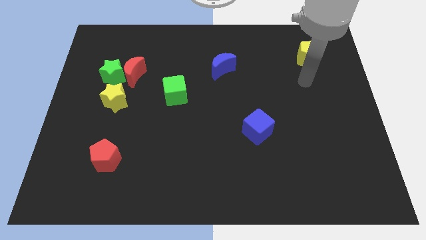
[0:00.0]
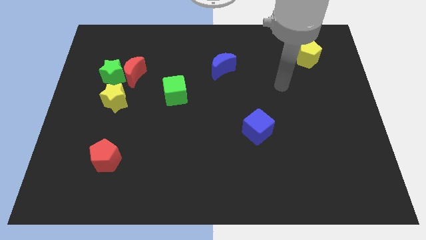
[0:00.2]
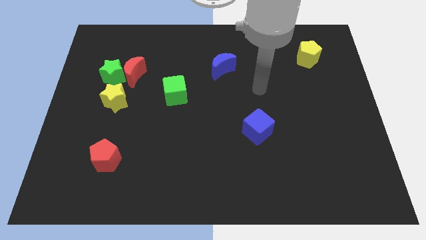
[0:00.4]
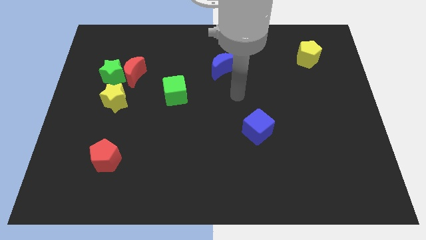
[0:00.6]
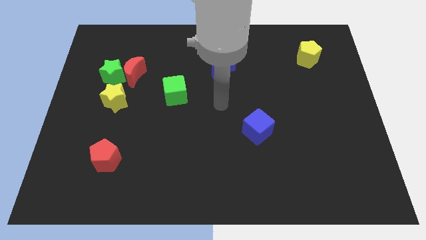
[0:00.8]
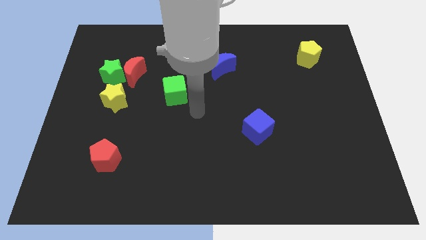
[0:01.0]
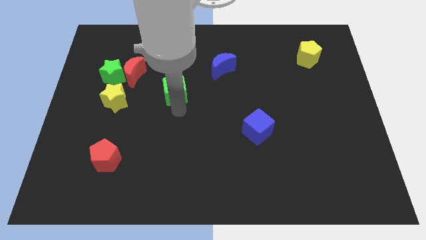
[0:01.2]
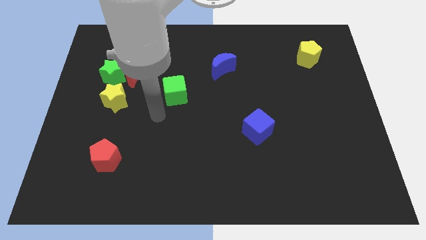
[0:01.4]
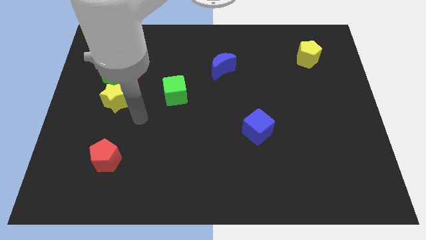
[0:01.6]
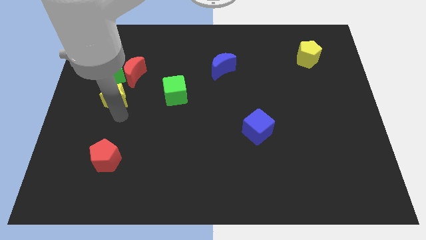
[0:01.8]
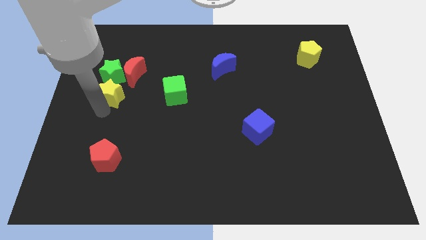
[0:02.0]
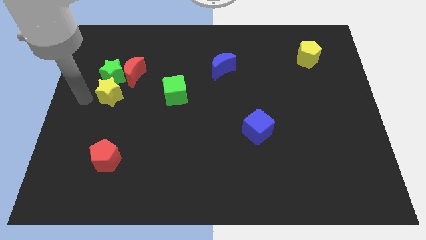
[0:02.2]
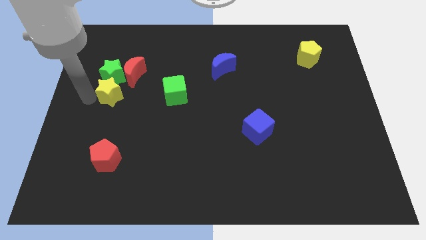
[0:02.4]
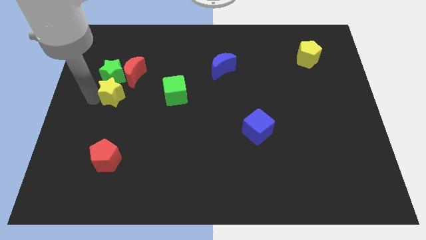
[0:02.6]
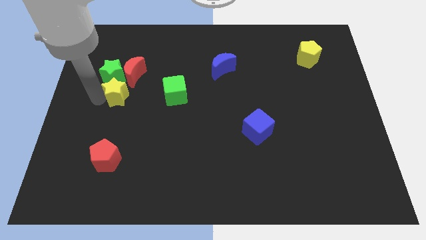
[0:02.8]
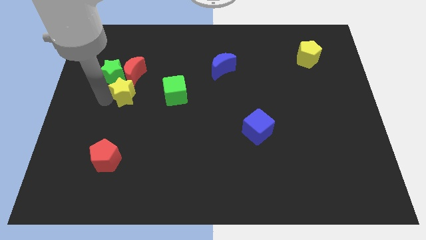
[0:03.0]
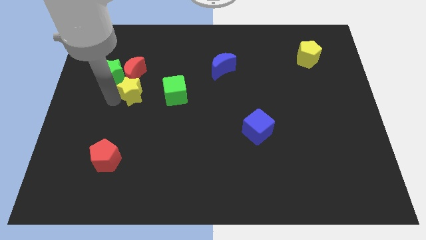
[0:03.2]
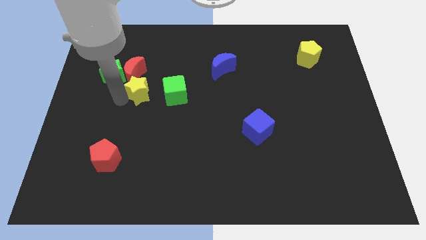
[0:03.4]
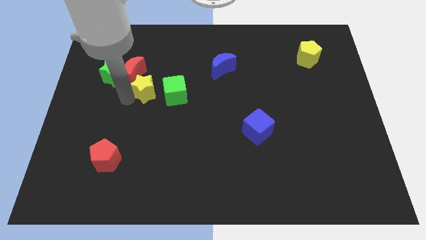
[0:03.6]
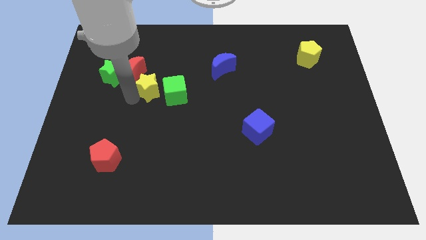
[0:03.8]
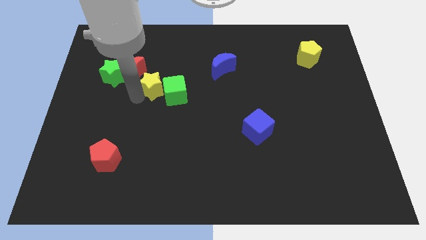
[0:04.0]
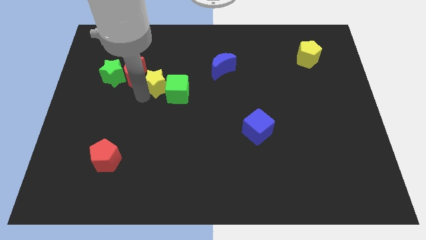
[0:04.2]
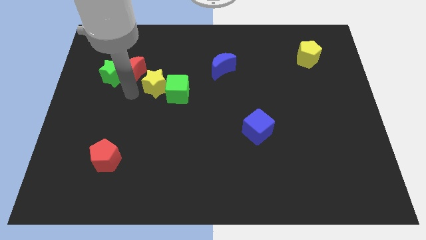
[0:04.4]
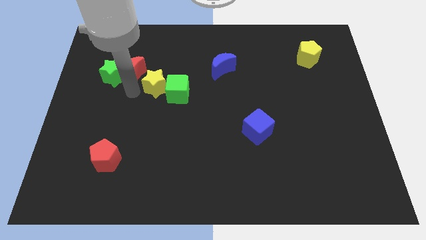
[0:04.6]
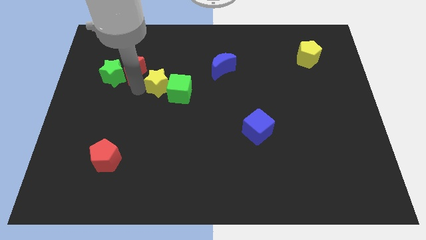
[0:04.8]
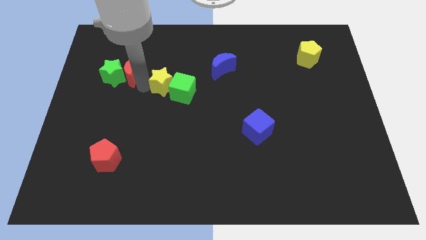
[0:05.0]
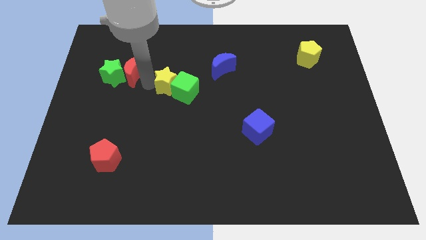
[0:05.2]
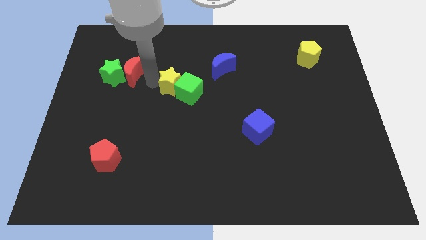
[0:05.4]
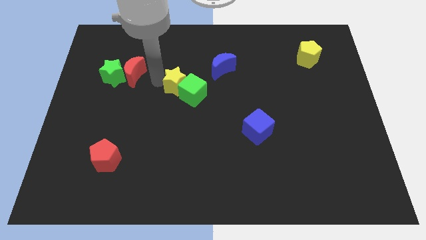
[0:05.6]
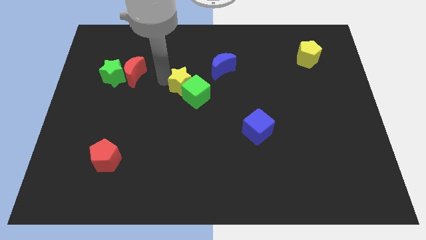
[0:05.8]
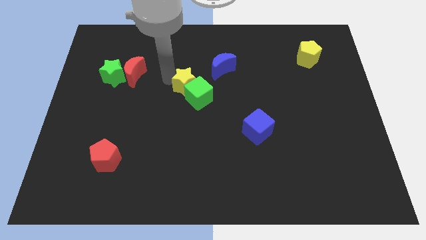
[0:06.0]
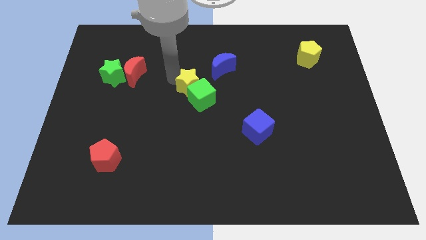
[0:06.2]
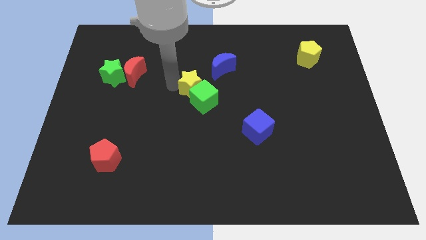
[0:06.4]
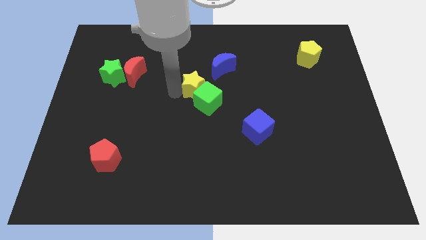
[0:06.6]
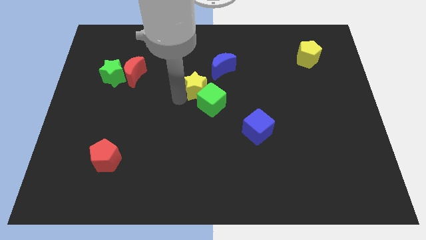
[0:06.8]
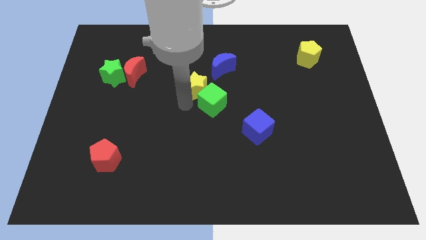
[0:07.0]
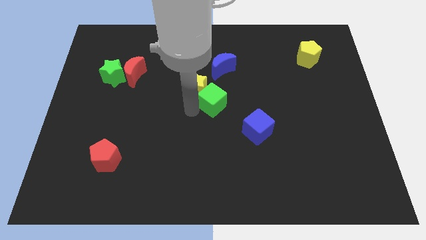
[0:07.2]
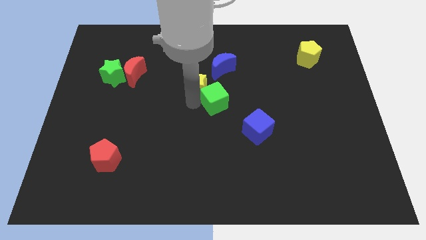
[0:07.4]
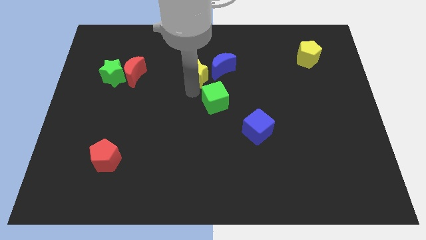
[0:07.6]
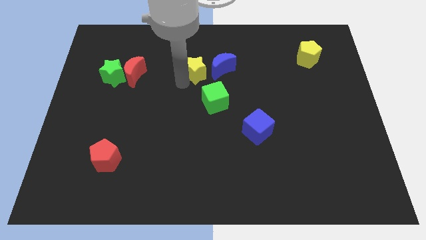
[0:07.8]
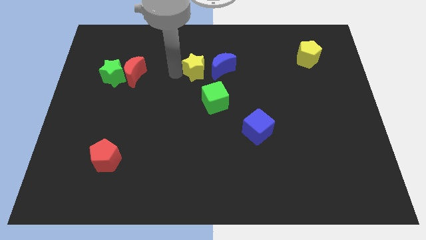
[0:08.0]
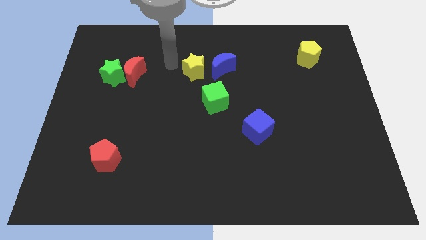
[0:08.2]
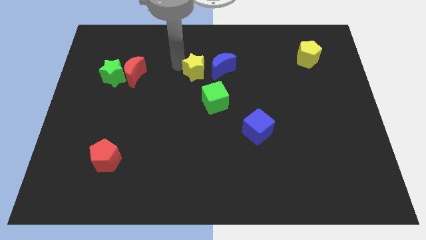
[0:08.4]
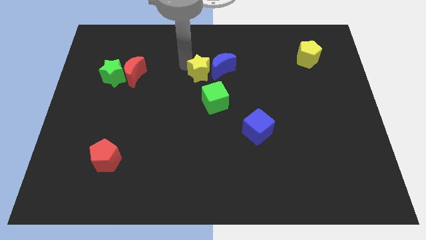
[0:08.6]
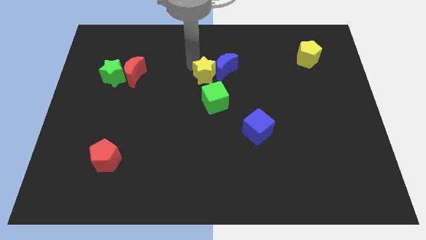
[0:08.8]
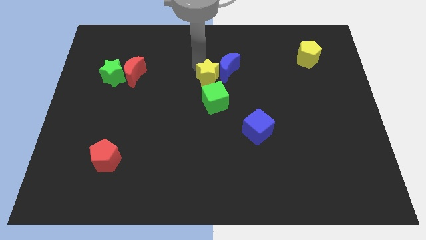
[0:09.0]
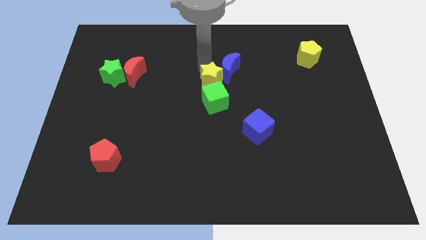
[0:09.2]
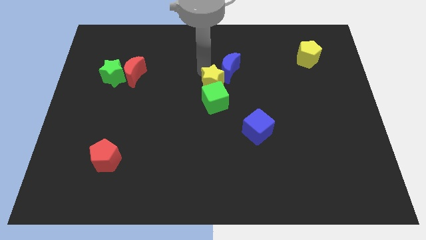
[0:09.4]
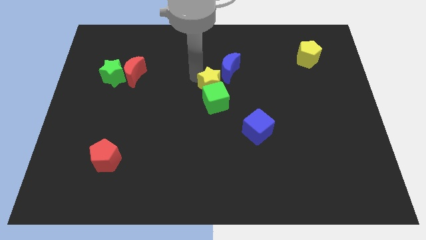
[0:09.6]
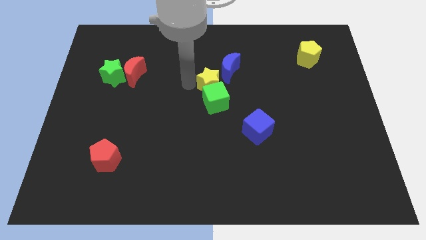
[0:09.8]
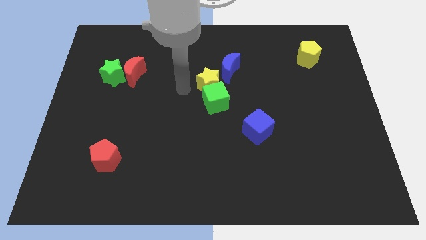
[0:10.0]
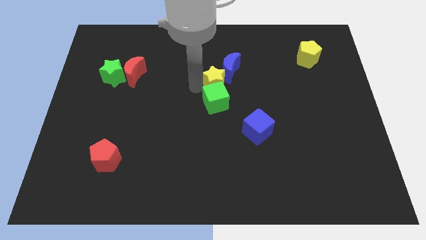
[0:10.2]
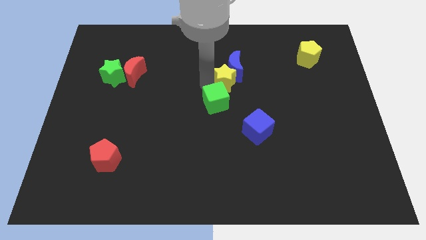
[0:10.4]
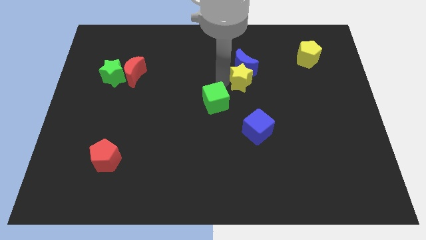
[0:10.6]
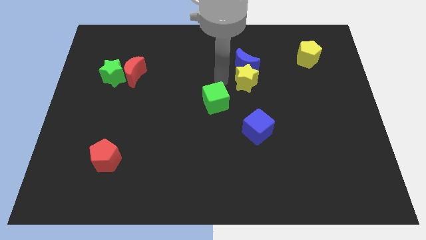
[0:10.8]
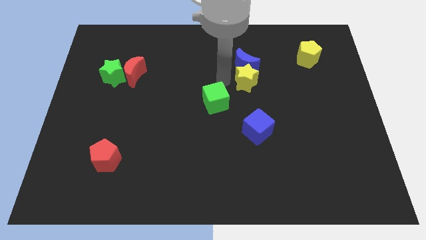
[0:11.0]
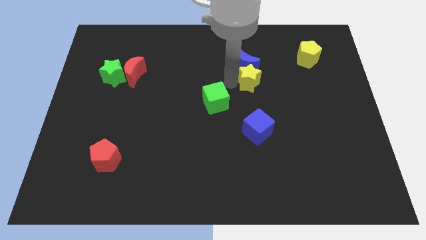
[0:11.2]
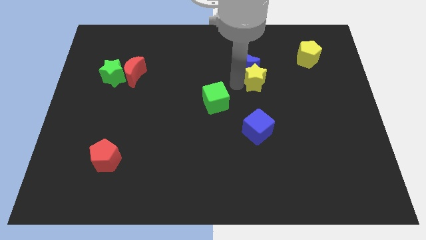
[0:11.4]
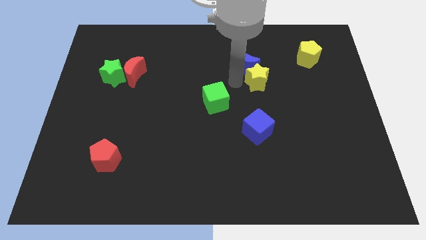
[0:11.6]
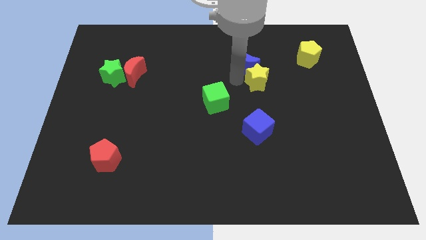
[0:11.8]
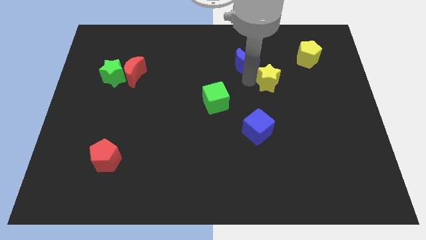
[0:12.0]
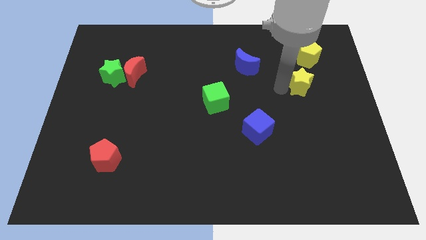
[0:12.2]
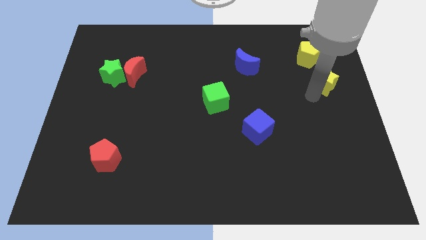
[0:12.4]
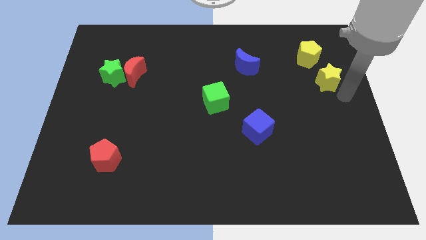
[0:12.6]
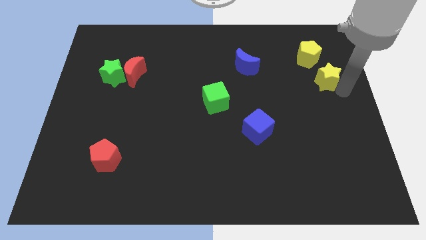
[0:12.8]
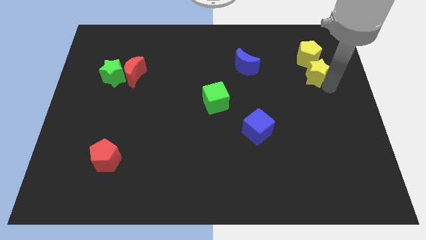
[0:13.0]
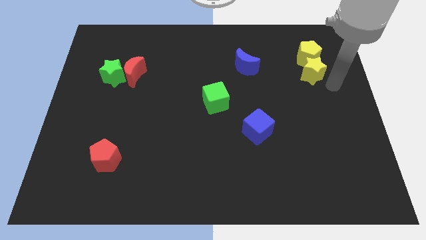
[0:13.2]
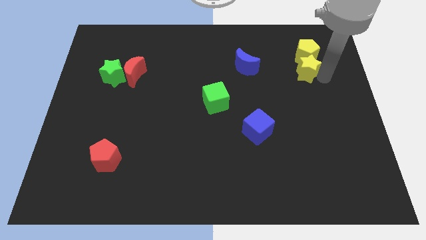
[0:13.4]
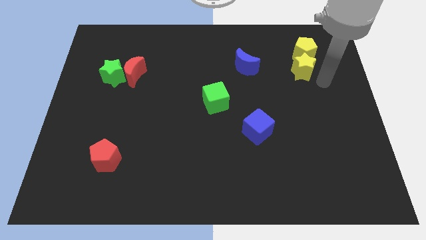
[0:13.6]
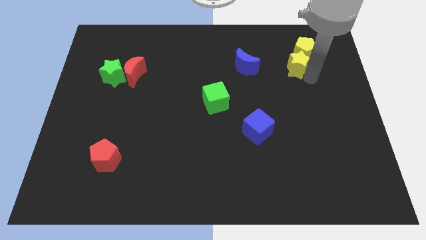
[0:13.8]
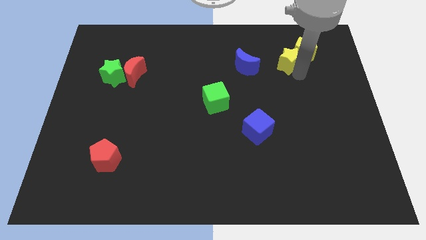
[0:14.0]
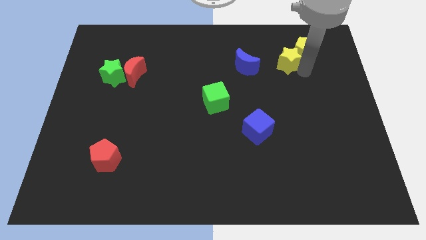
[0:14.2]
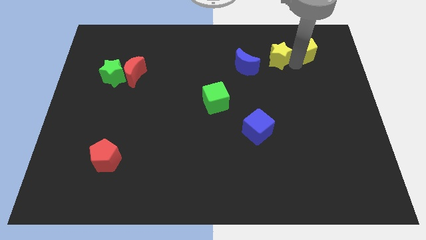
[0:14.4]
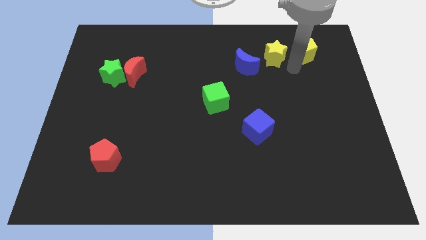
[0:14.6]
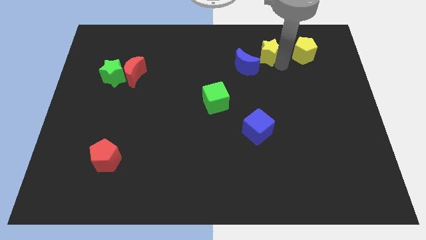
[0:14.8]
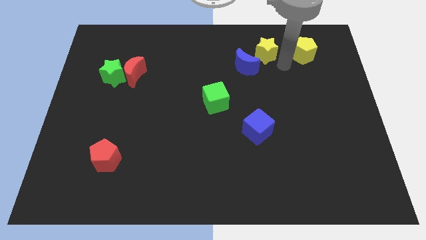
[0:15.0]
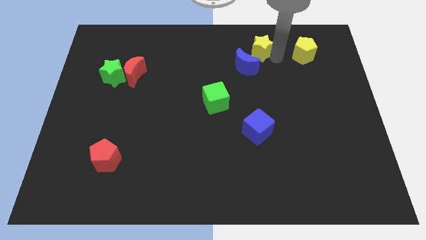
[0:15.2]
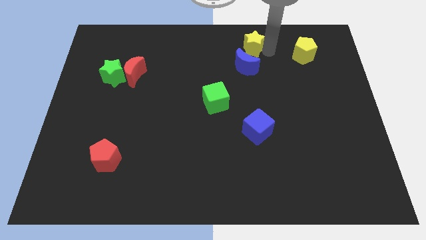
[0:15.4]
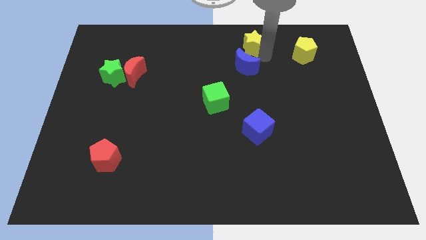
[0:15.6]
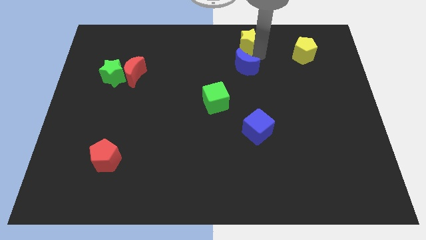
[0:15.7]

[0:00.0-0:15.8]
push the yellow star to the top side
